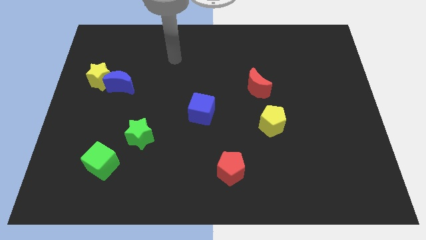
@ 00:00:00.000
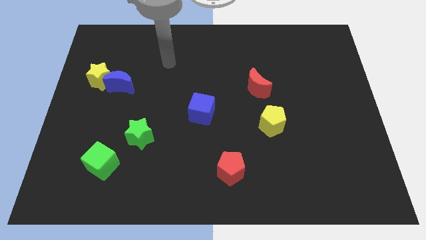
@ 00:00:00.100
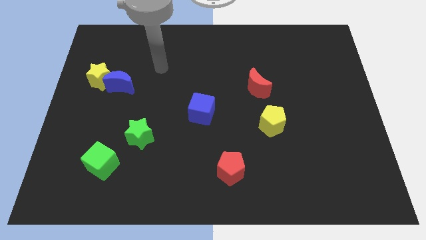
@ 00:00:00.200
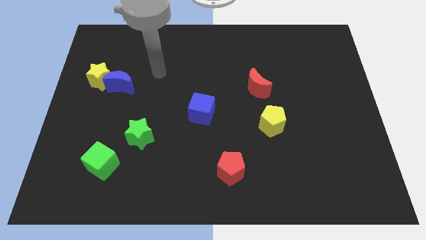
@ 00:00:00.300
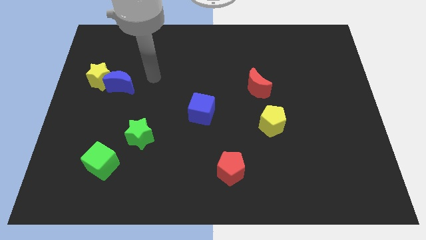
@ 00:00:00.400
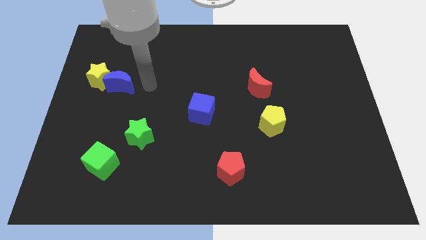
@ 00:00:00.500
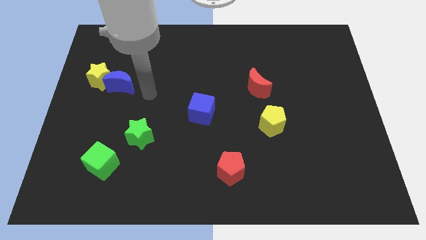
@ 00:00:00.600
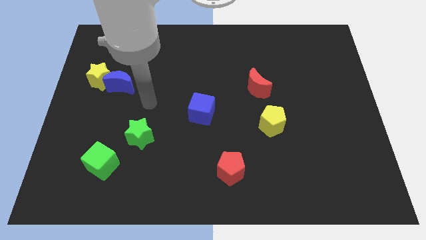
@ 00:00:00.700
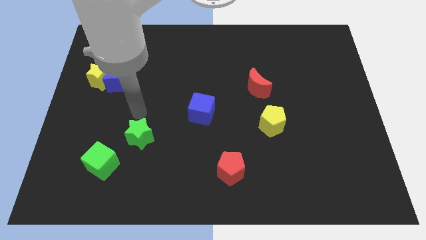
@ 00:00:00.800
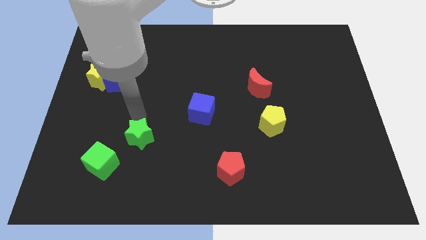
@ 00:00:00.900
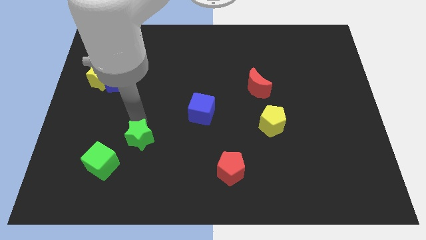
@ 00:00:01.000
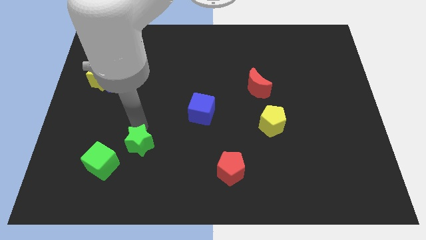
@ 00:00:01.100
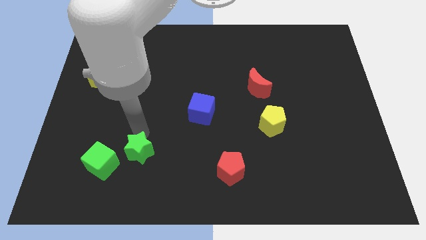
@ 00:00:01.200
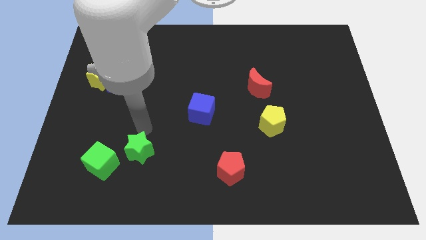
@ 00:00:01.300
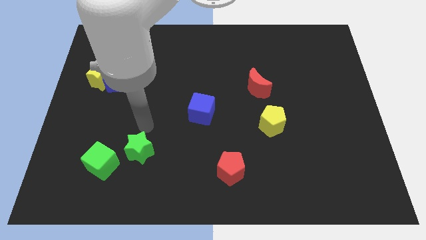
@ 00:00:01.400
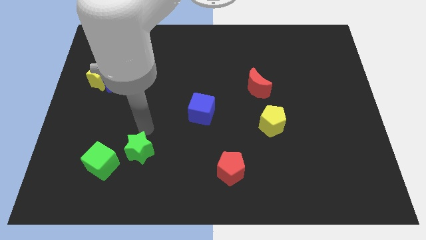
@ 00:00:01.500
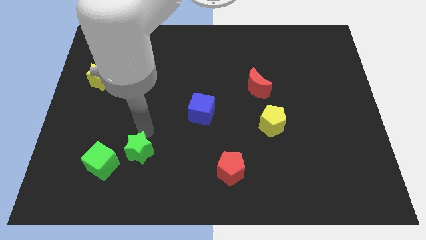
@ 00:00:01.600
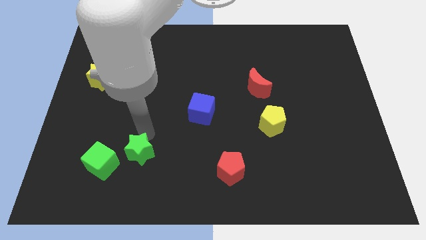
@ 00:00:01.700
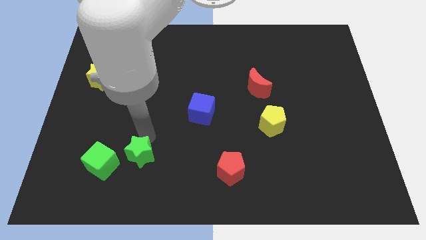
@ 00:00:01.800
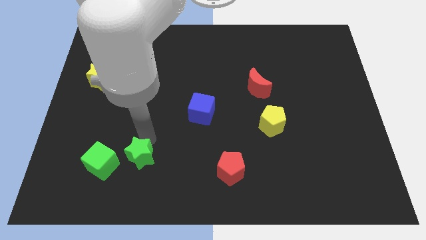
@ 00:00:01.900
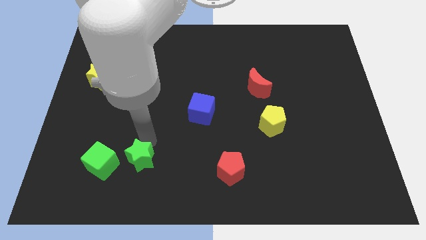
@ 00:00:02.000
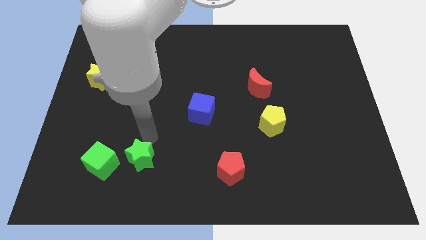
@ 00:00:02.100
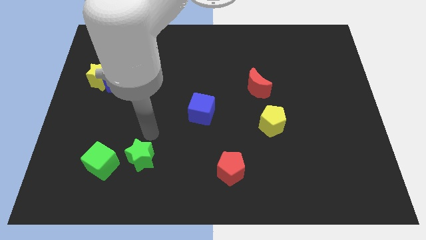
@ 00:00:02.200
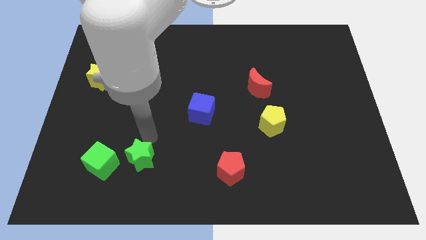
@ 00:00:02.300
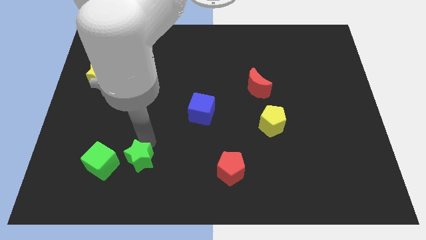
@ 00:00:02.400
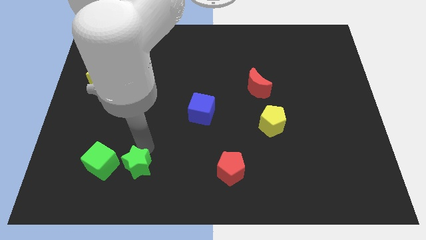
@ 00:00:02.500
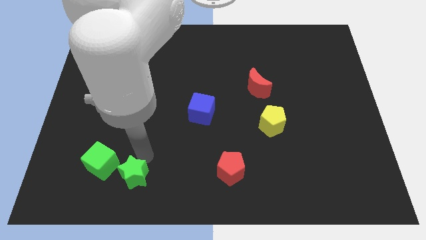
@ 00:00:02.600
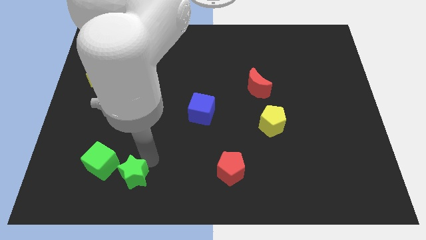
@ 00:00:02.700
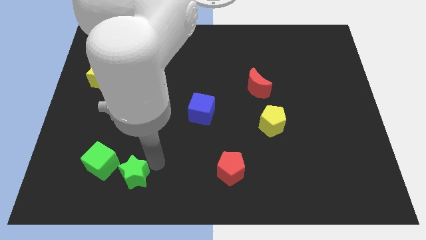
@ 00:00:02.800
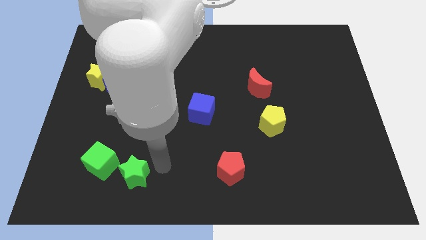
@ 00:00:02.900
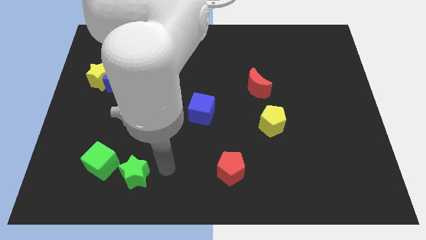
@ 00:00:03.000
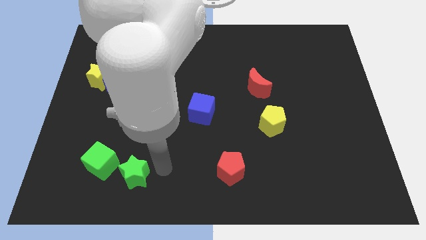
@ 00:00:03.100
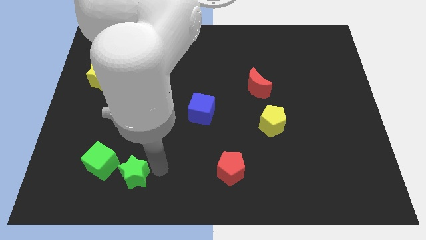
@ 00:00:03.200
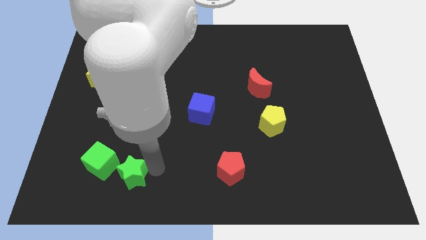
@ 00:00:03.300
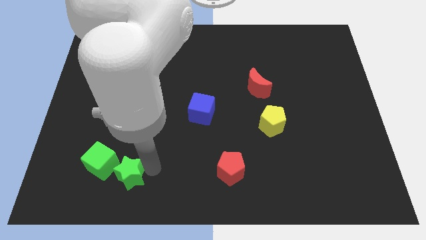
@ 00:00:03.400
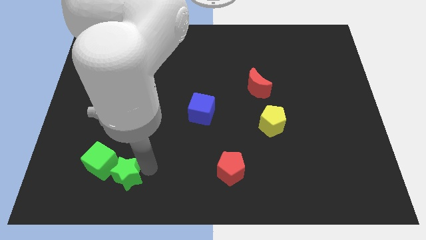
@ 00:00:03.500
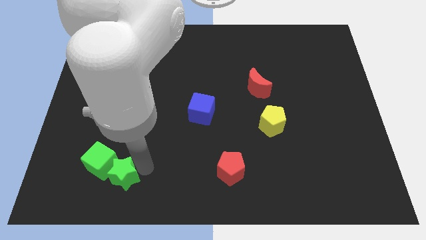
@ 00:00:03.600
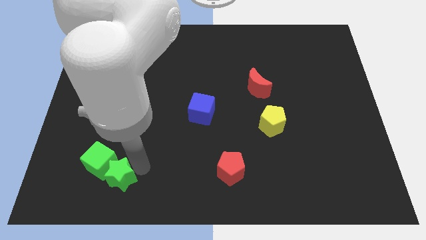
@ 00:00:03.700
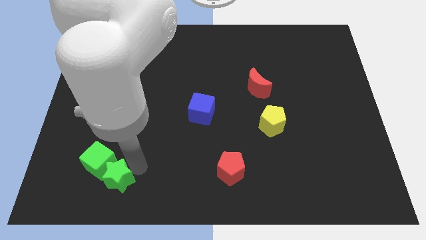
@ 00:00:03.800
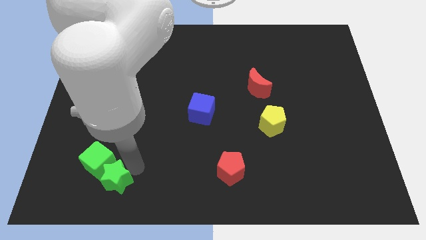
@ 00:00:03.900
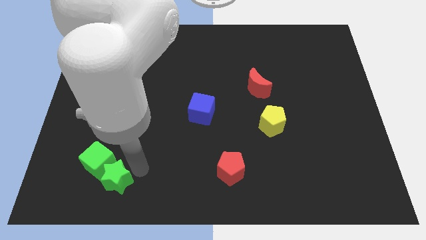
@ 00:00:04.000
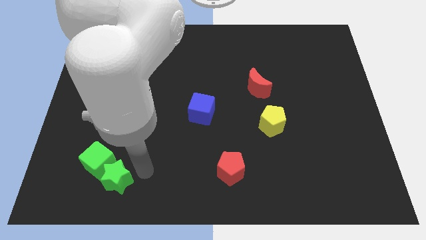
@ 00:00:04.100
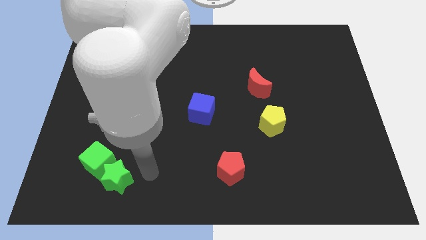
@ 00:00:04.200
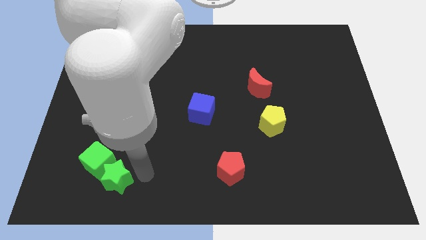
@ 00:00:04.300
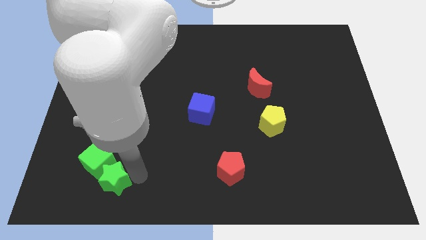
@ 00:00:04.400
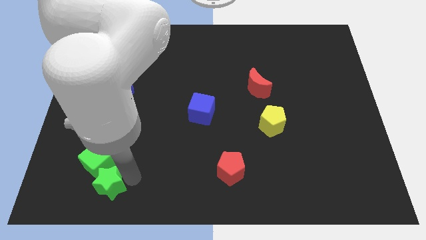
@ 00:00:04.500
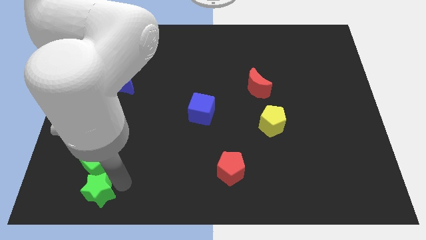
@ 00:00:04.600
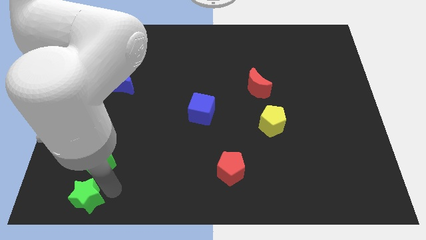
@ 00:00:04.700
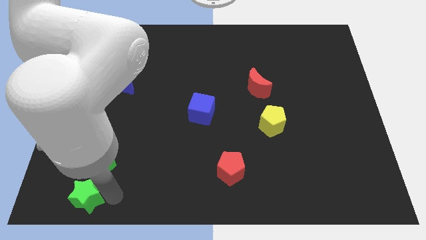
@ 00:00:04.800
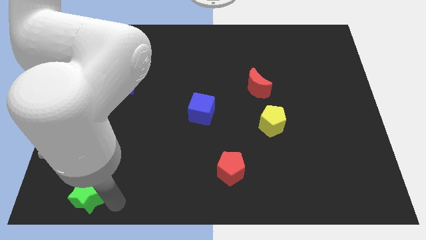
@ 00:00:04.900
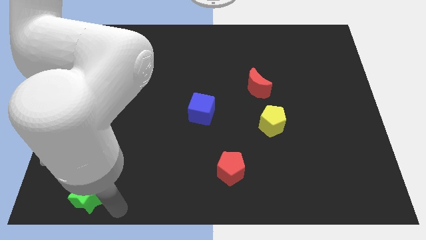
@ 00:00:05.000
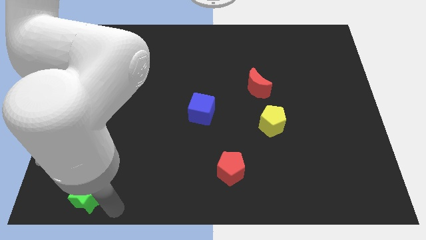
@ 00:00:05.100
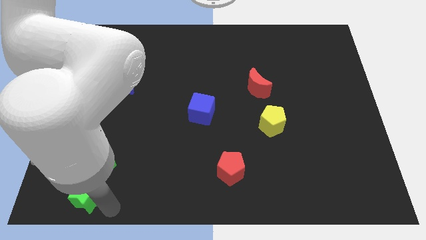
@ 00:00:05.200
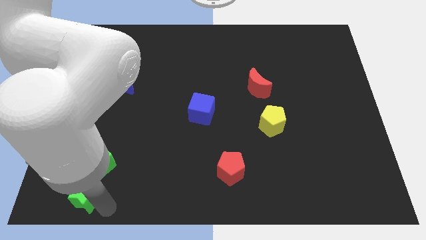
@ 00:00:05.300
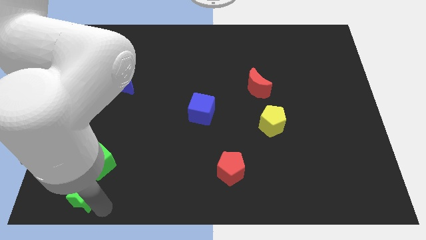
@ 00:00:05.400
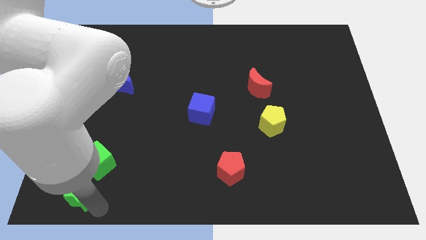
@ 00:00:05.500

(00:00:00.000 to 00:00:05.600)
put the green star to the lower left corner
